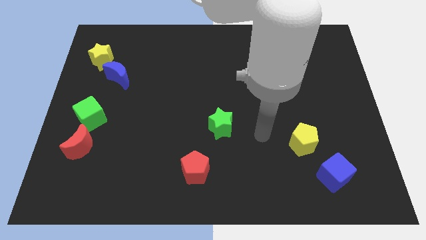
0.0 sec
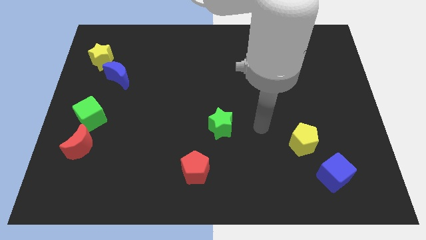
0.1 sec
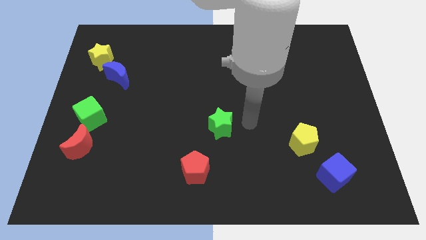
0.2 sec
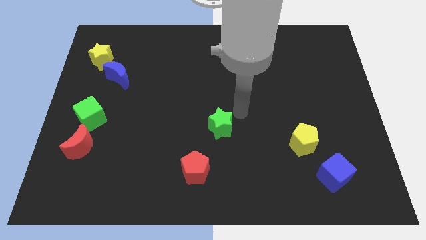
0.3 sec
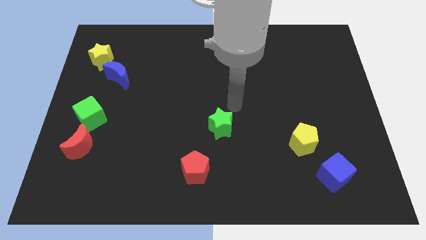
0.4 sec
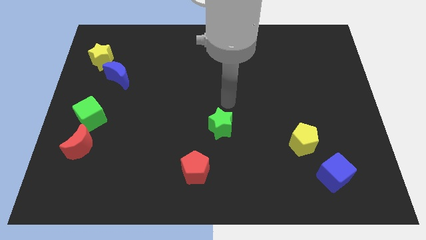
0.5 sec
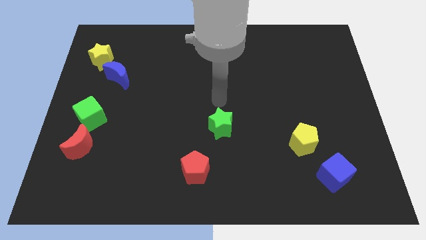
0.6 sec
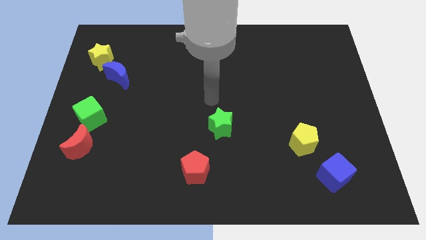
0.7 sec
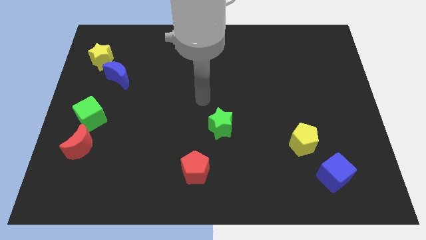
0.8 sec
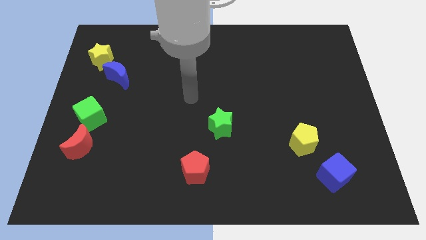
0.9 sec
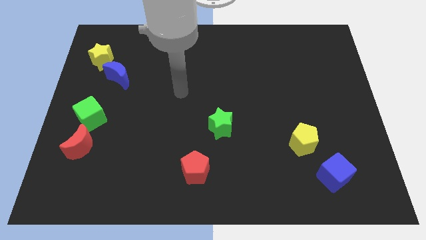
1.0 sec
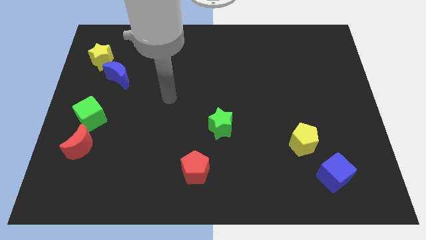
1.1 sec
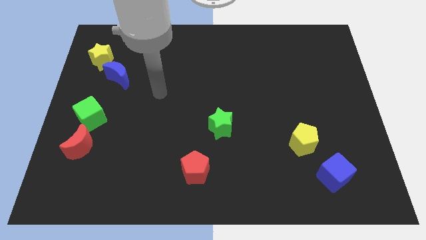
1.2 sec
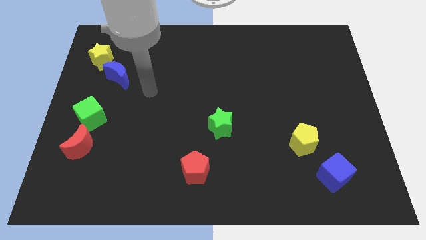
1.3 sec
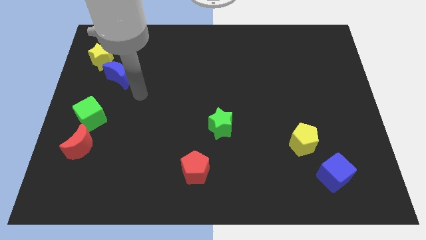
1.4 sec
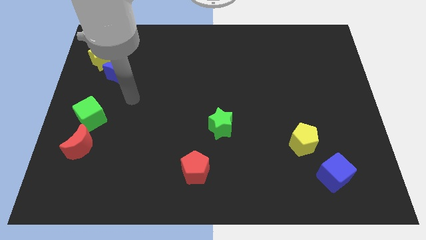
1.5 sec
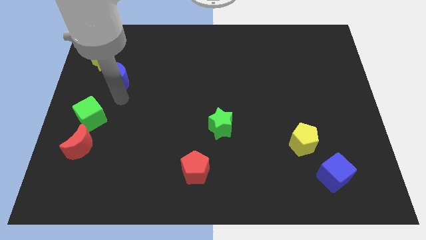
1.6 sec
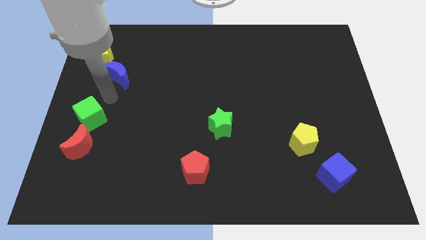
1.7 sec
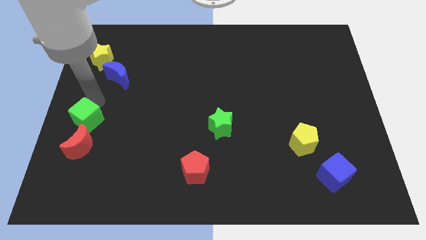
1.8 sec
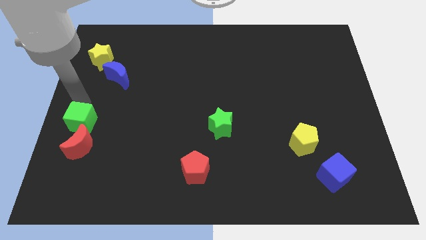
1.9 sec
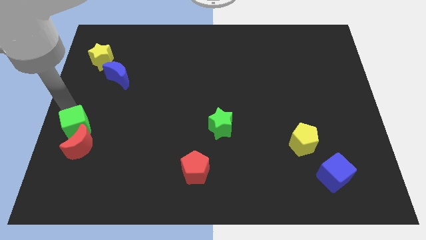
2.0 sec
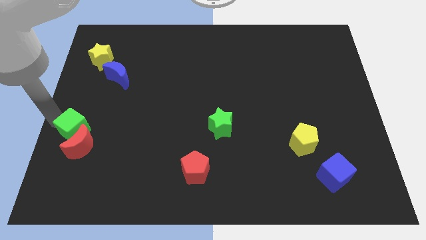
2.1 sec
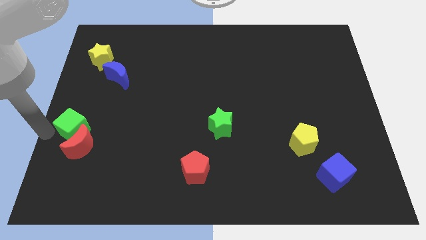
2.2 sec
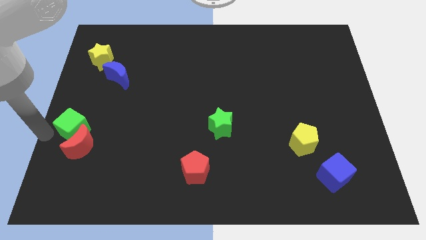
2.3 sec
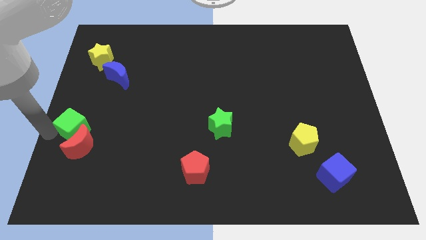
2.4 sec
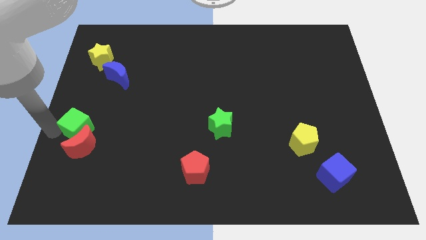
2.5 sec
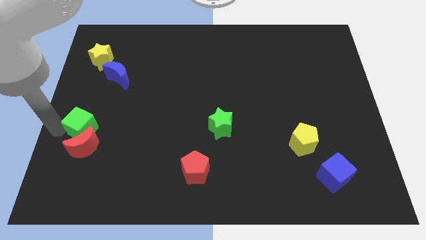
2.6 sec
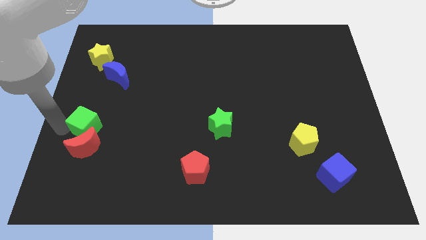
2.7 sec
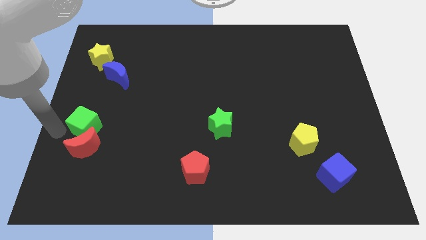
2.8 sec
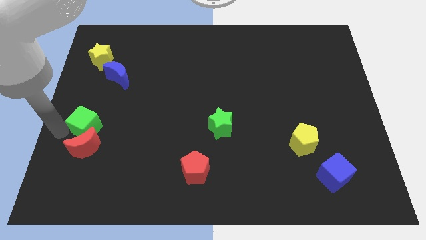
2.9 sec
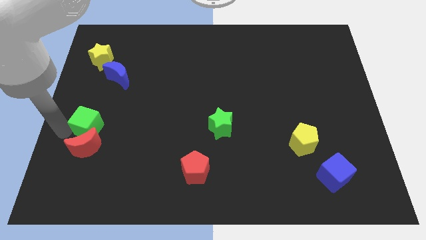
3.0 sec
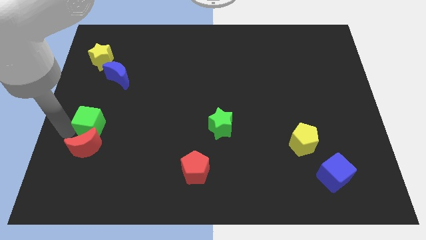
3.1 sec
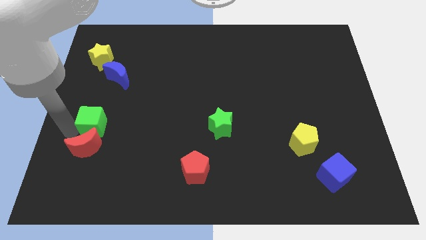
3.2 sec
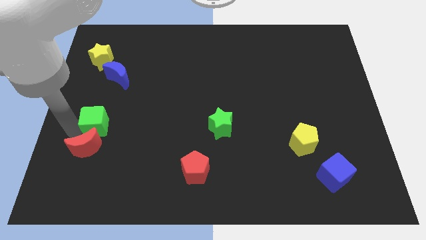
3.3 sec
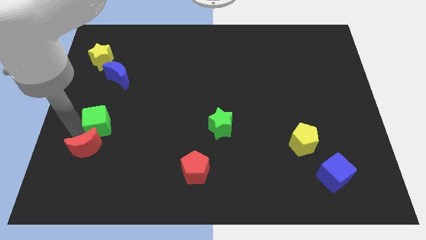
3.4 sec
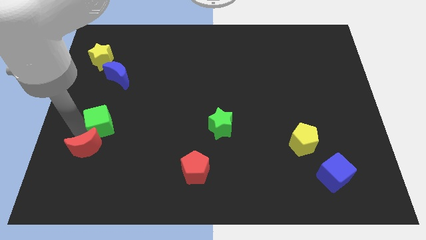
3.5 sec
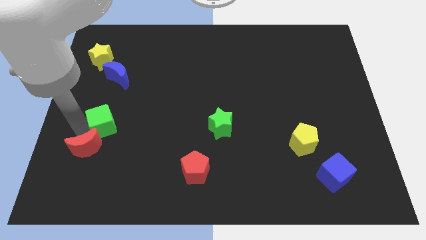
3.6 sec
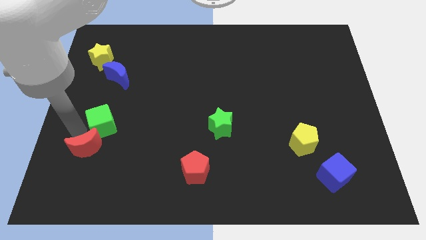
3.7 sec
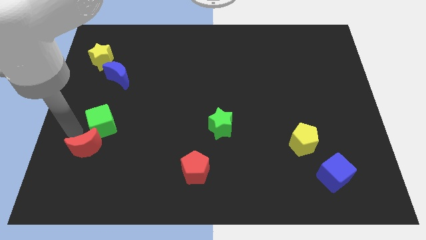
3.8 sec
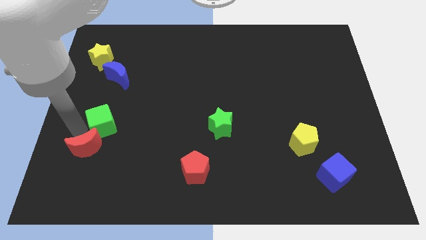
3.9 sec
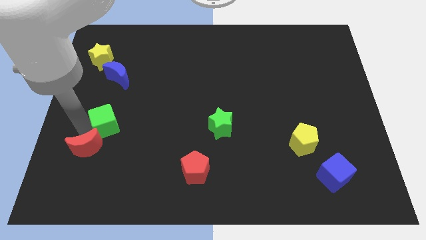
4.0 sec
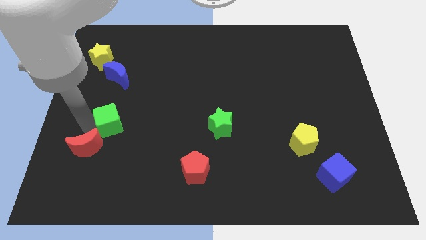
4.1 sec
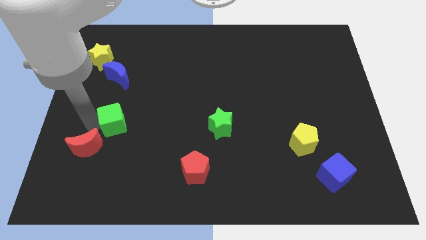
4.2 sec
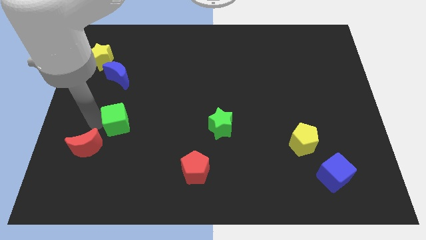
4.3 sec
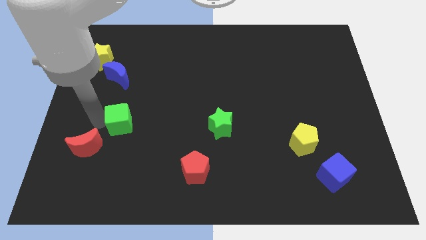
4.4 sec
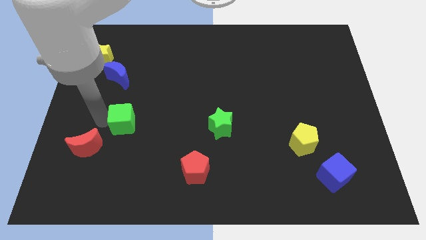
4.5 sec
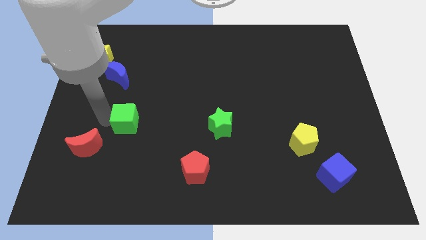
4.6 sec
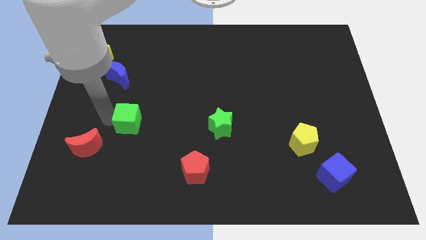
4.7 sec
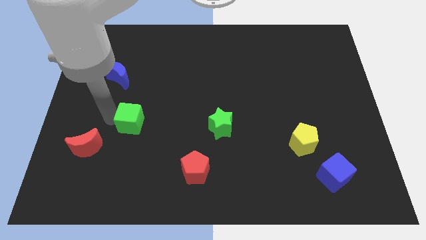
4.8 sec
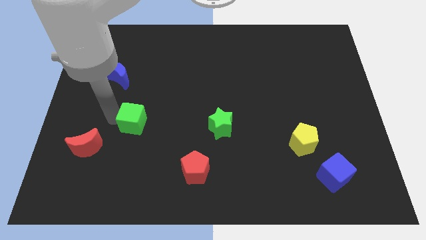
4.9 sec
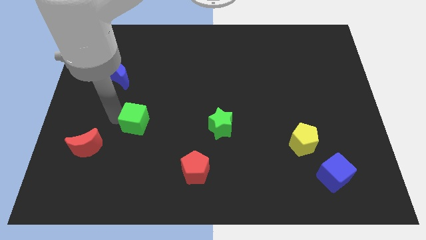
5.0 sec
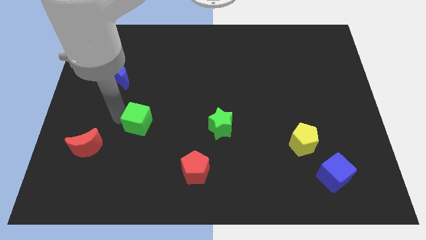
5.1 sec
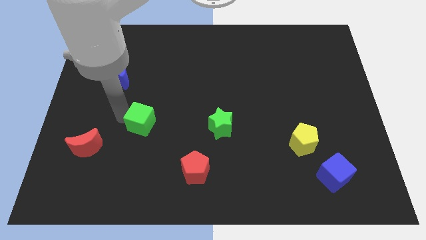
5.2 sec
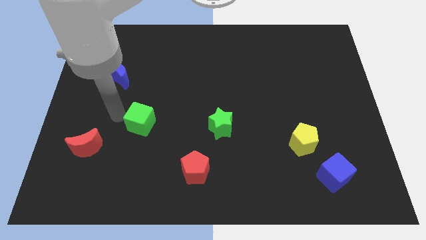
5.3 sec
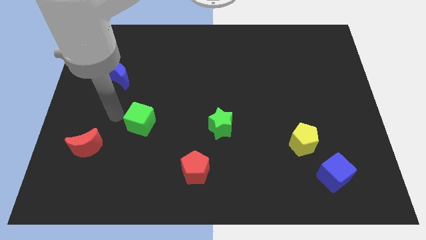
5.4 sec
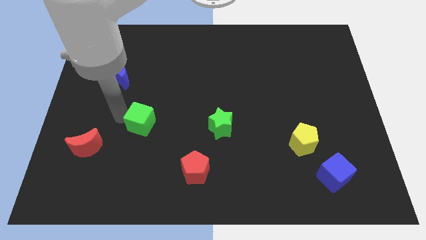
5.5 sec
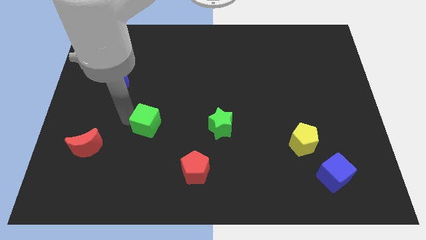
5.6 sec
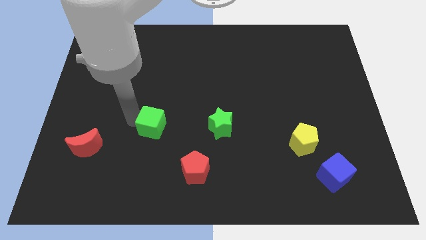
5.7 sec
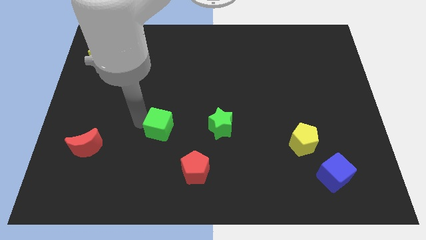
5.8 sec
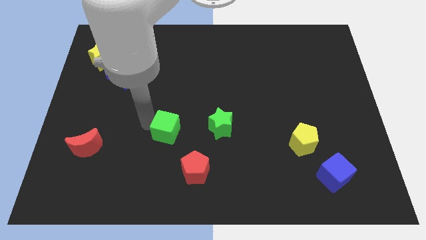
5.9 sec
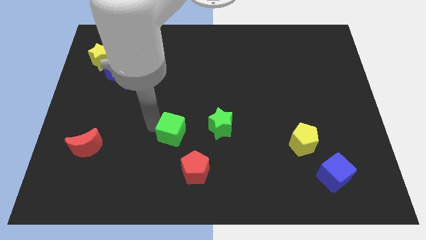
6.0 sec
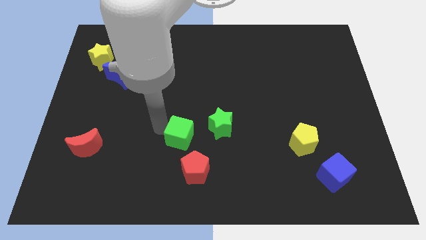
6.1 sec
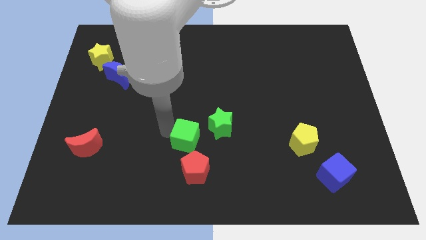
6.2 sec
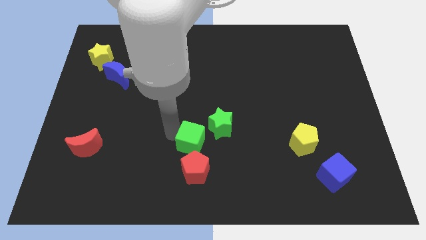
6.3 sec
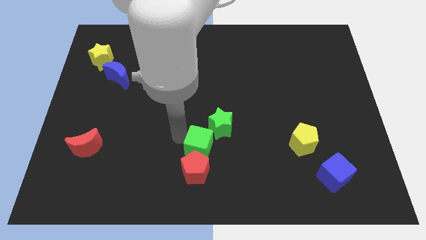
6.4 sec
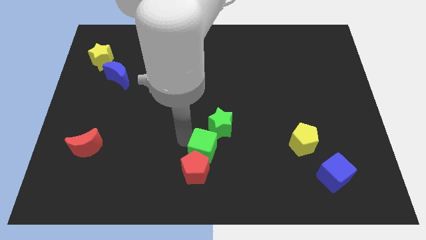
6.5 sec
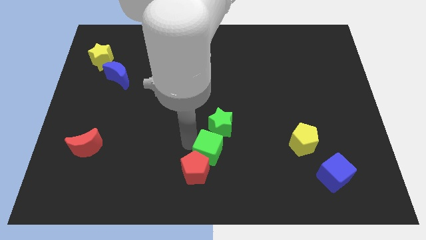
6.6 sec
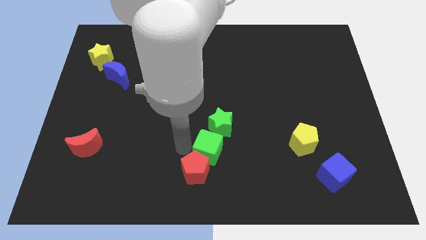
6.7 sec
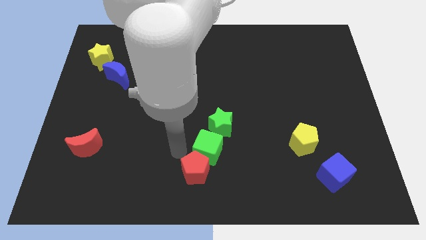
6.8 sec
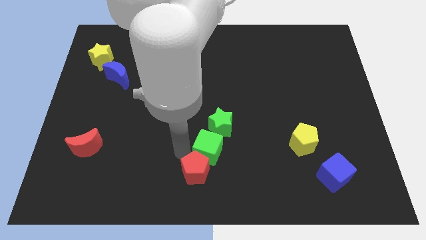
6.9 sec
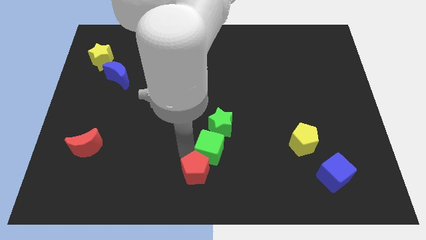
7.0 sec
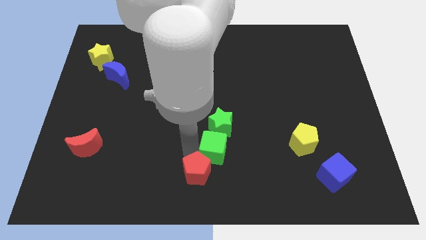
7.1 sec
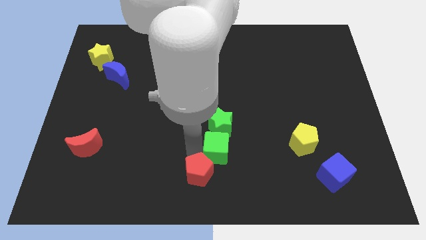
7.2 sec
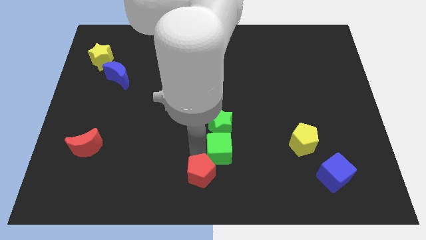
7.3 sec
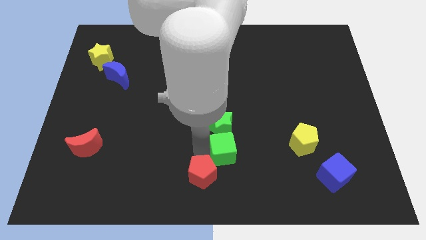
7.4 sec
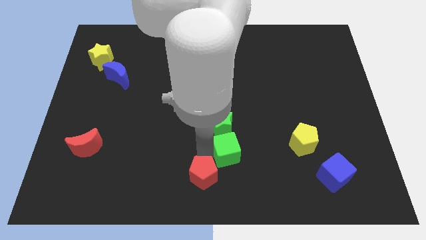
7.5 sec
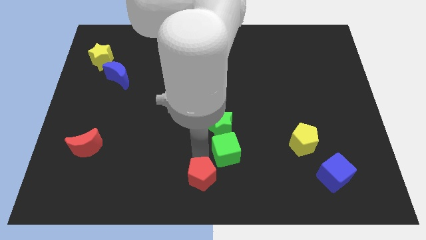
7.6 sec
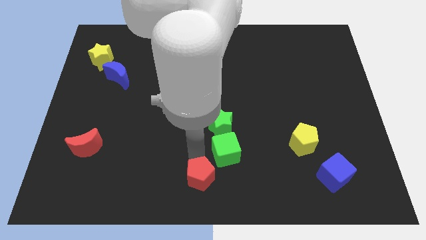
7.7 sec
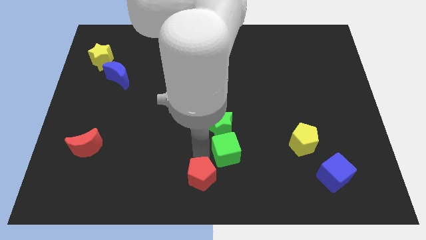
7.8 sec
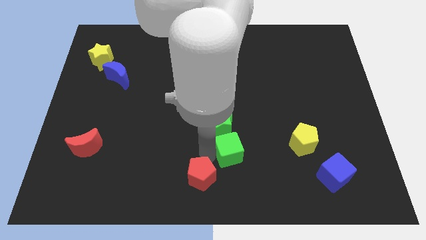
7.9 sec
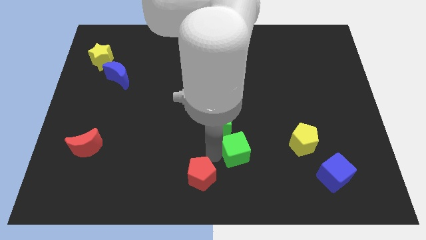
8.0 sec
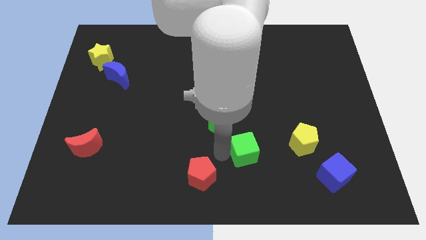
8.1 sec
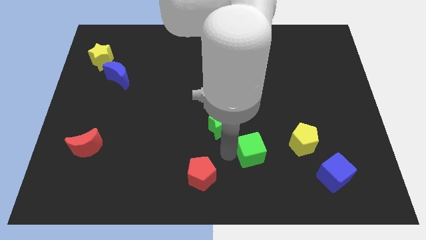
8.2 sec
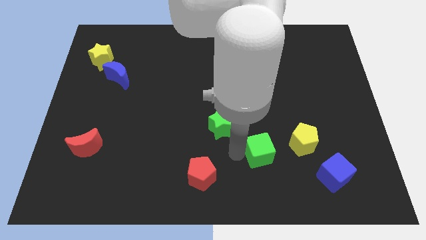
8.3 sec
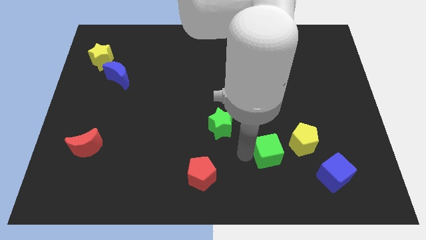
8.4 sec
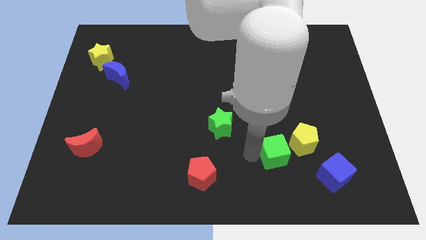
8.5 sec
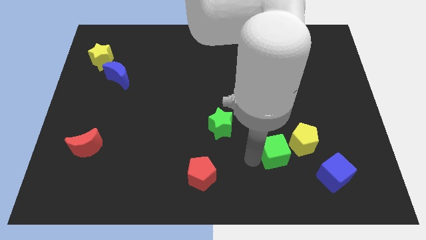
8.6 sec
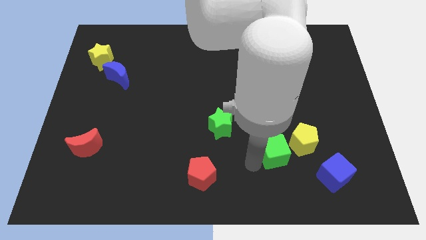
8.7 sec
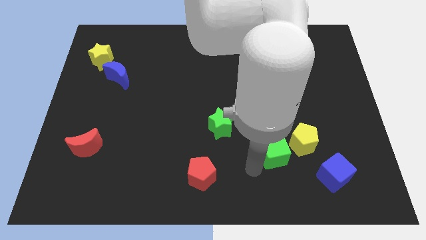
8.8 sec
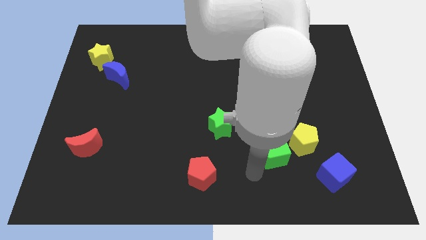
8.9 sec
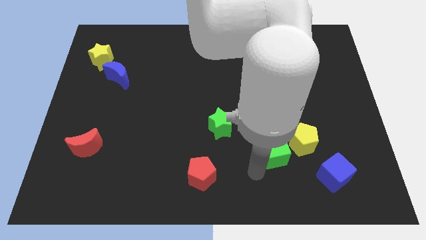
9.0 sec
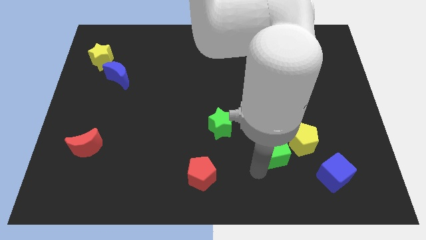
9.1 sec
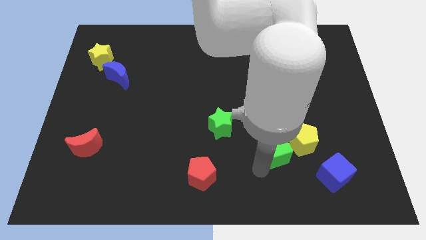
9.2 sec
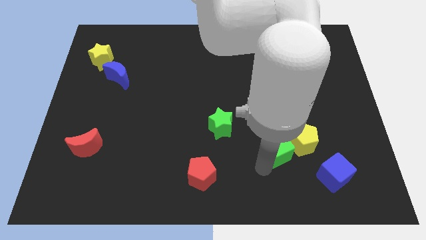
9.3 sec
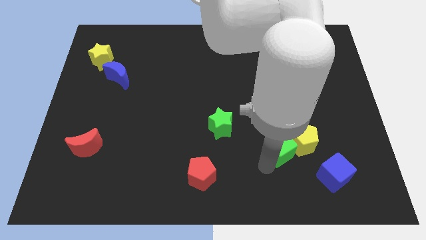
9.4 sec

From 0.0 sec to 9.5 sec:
move the green cube close to the yellow pentagon
